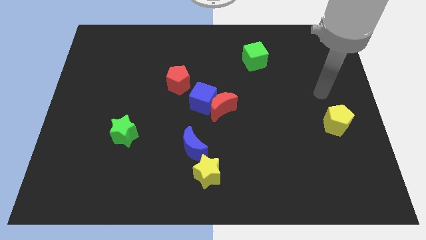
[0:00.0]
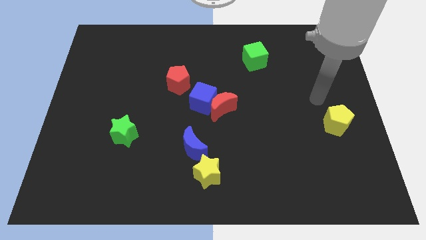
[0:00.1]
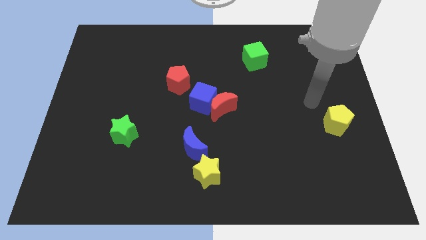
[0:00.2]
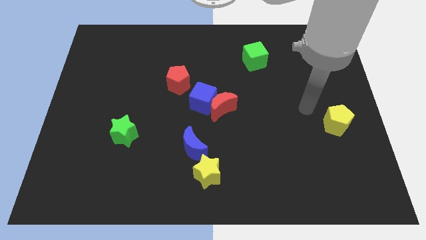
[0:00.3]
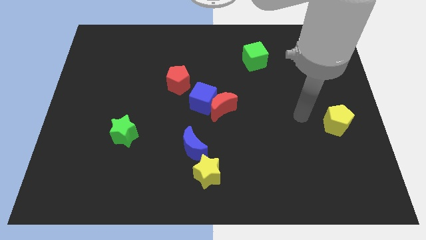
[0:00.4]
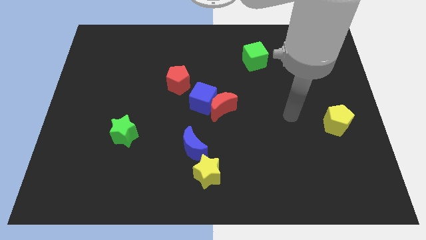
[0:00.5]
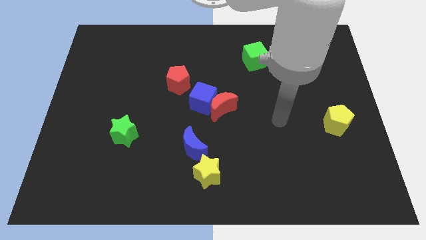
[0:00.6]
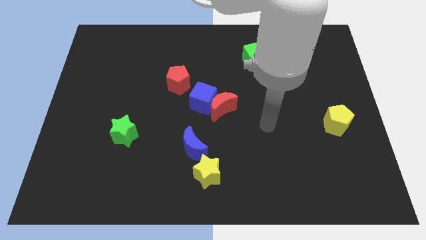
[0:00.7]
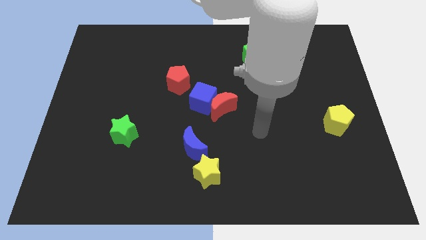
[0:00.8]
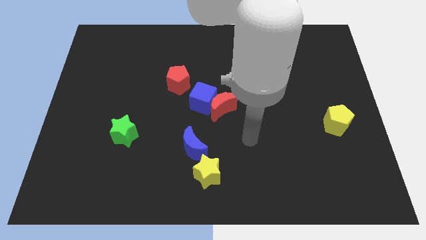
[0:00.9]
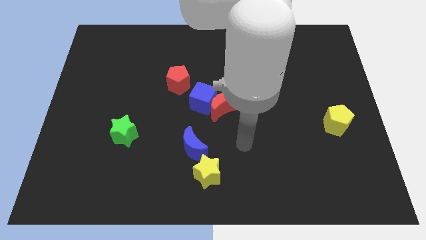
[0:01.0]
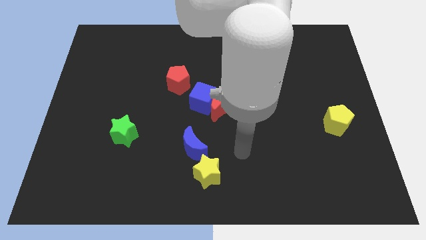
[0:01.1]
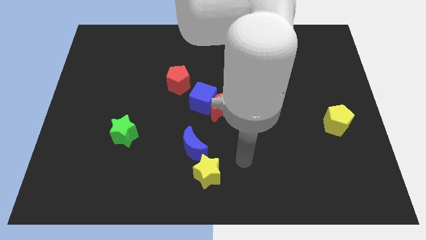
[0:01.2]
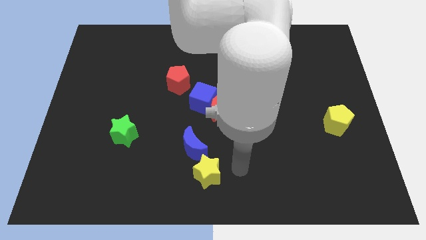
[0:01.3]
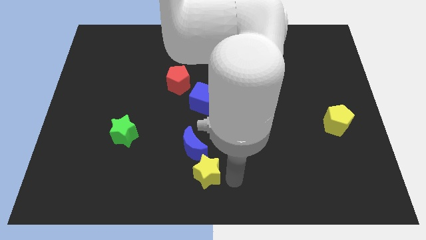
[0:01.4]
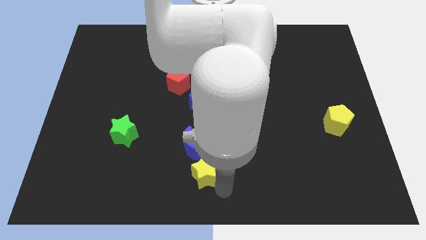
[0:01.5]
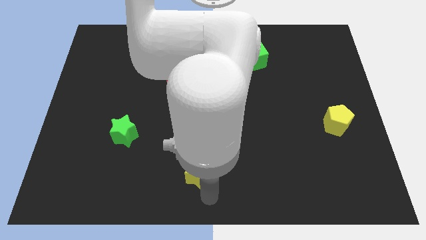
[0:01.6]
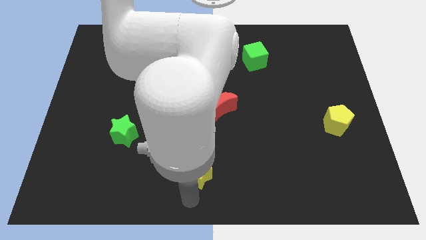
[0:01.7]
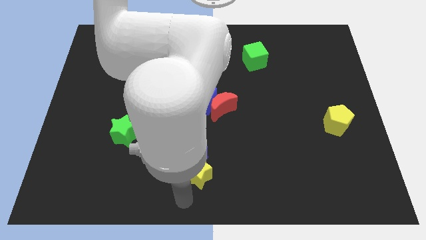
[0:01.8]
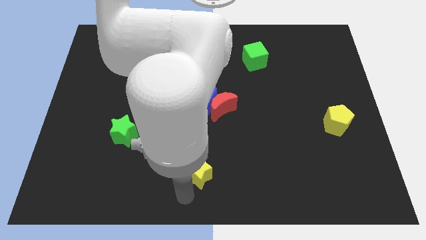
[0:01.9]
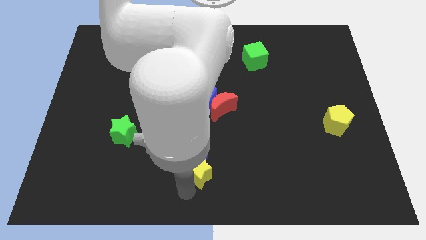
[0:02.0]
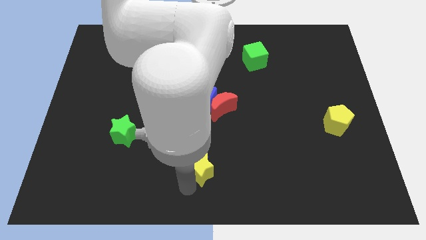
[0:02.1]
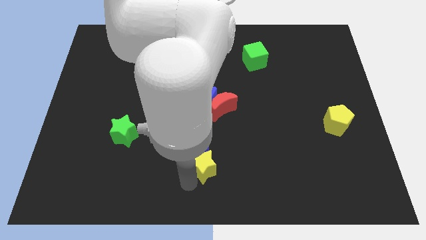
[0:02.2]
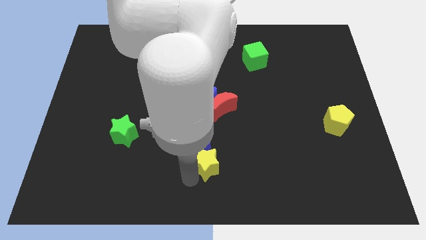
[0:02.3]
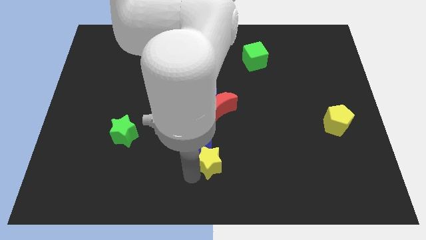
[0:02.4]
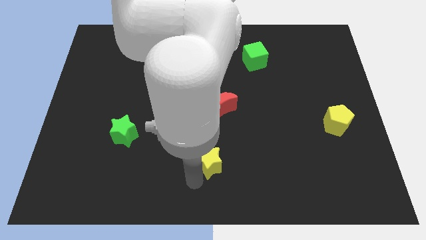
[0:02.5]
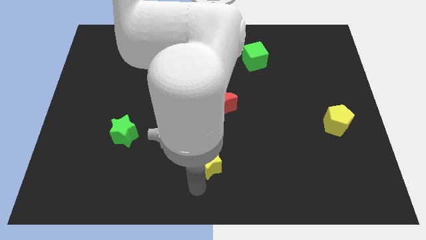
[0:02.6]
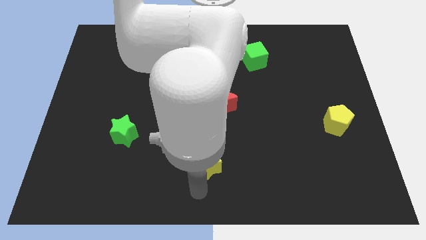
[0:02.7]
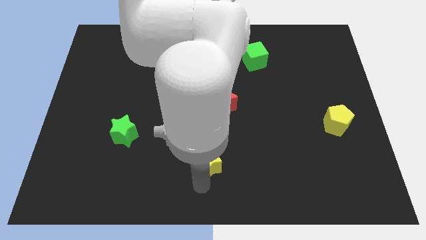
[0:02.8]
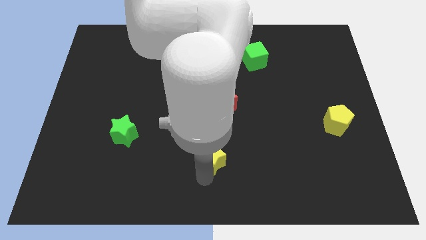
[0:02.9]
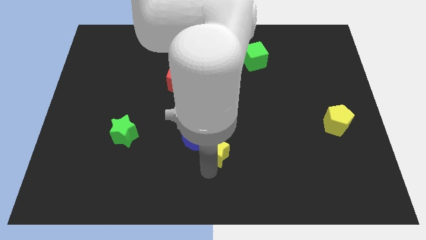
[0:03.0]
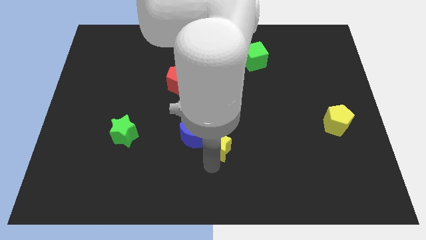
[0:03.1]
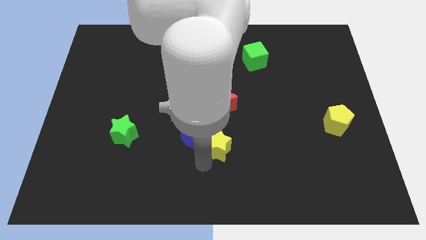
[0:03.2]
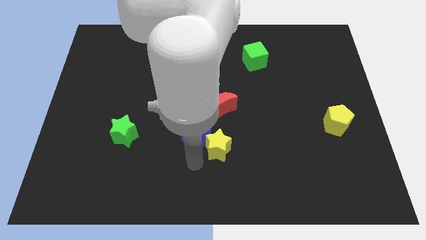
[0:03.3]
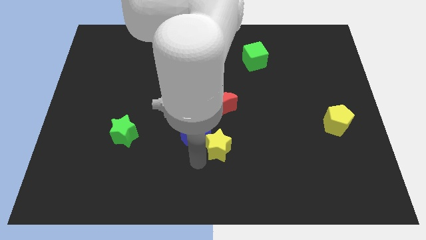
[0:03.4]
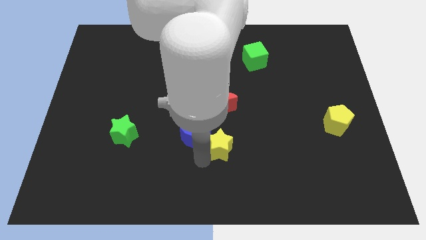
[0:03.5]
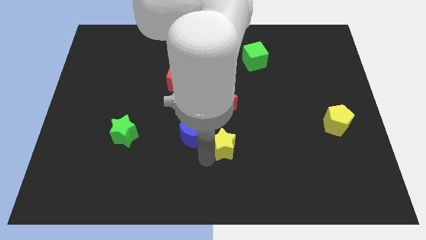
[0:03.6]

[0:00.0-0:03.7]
push the yellow star upwards and to the right a little

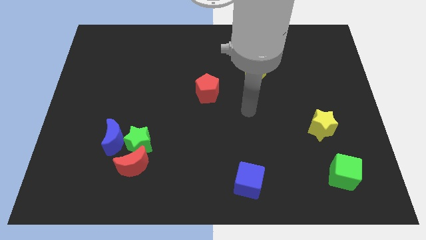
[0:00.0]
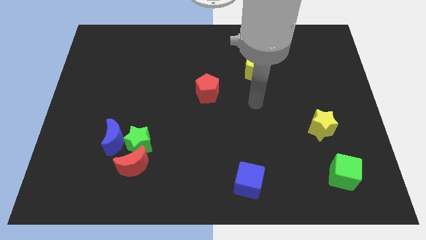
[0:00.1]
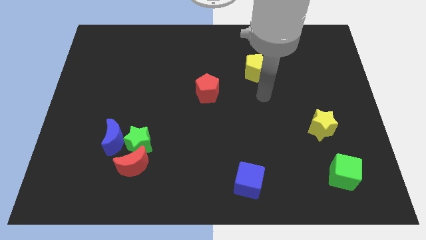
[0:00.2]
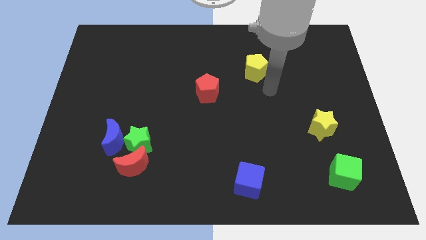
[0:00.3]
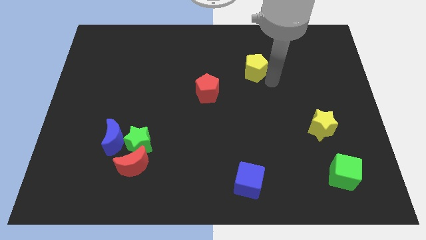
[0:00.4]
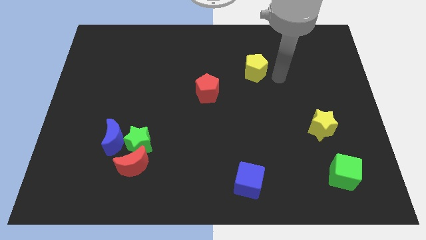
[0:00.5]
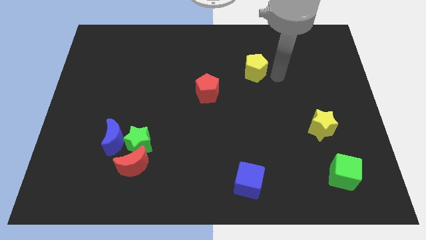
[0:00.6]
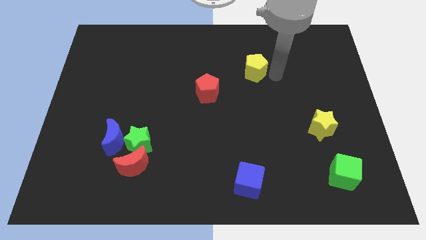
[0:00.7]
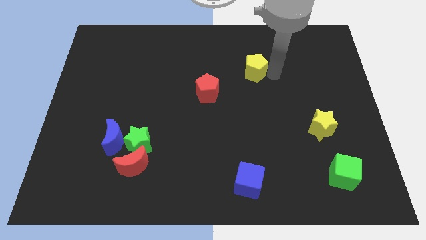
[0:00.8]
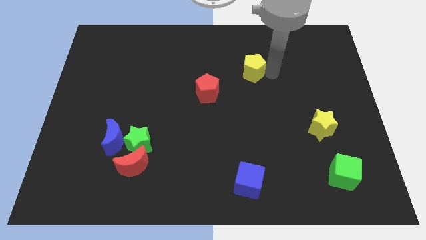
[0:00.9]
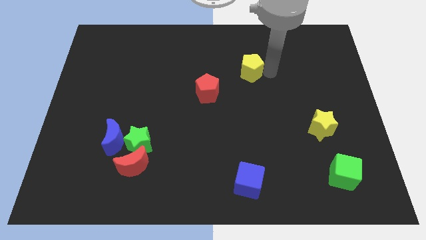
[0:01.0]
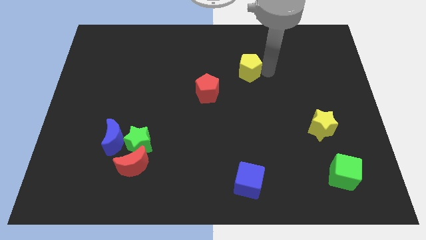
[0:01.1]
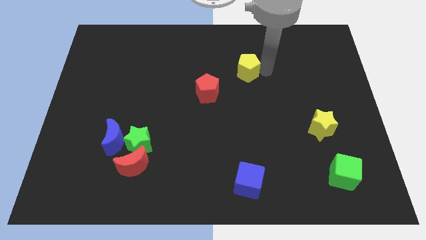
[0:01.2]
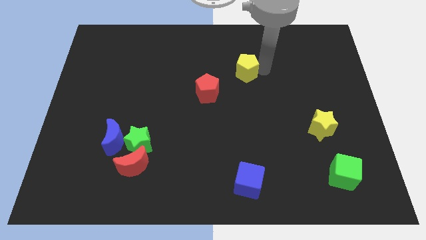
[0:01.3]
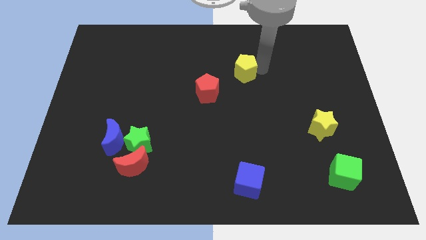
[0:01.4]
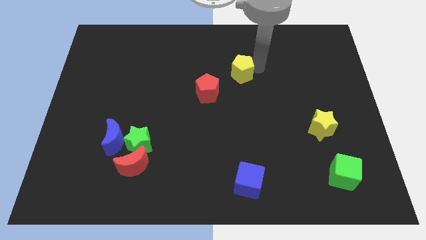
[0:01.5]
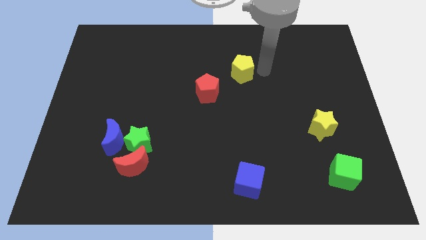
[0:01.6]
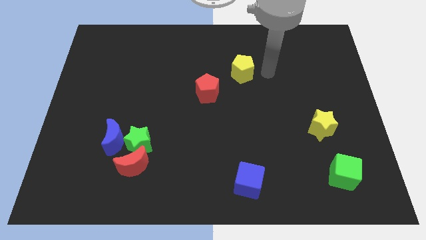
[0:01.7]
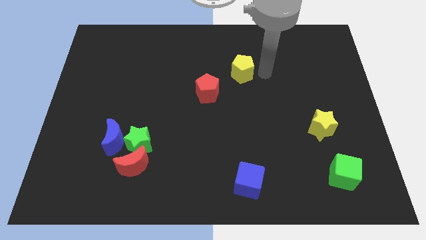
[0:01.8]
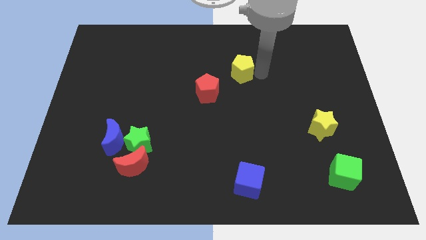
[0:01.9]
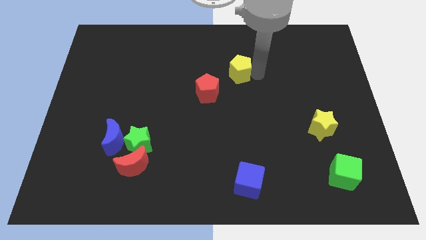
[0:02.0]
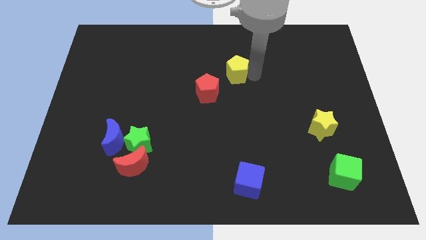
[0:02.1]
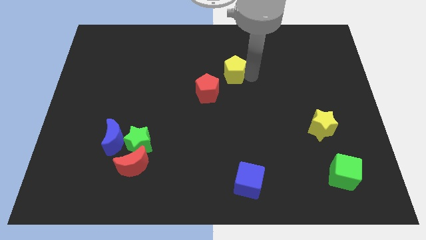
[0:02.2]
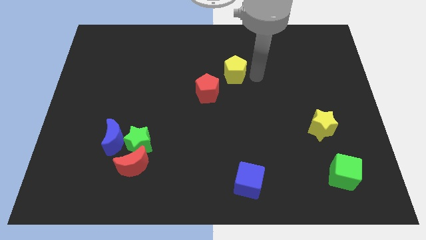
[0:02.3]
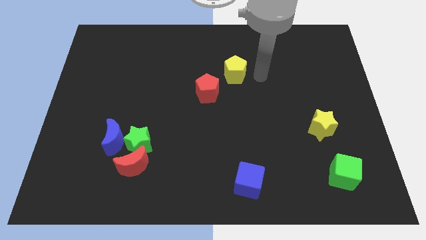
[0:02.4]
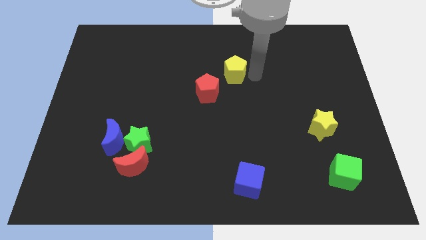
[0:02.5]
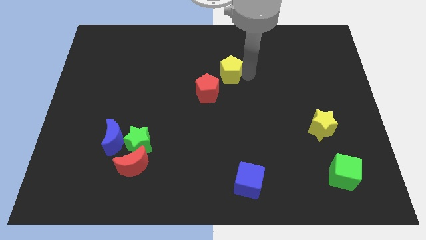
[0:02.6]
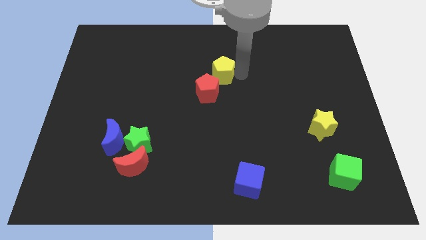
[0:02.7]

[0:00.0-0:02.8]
push the yellow pentagon a little left

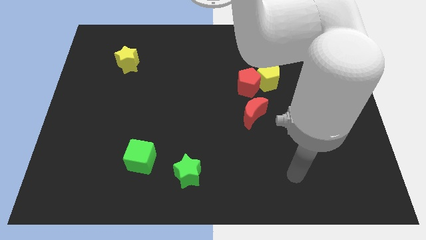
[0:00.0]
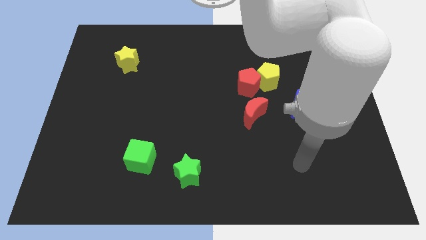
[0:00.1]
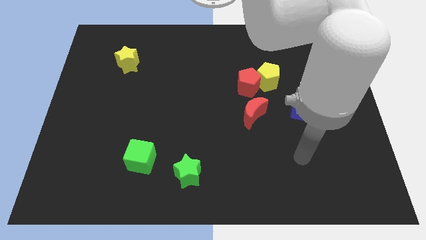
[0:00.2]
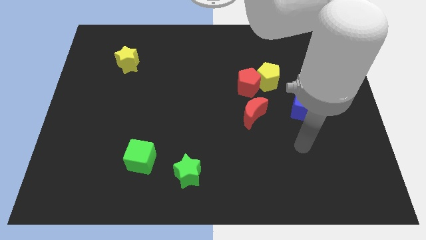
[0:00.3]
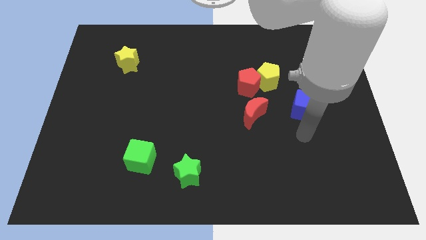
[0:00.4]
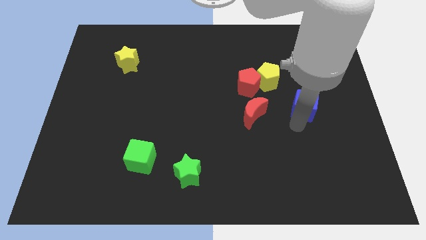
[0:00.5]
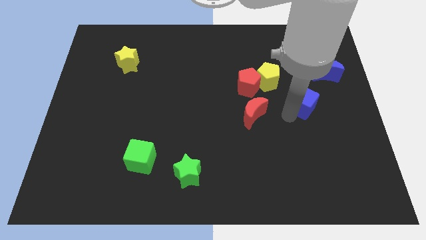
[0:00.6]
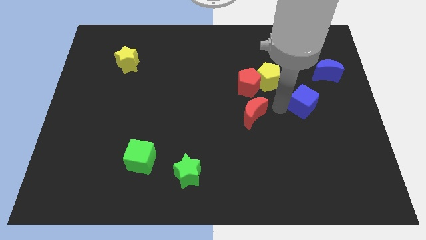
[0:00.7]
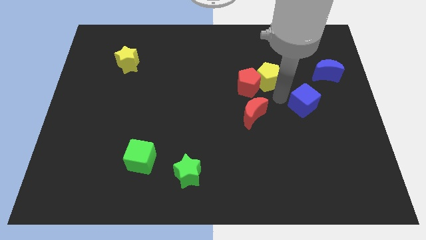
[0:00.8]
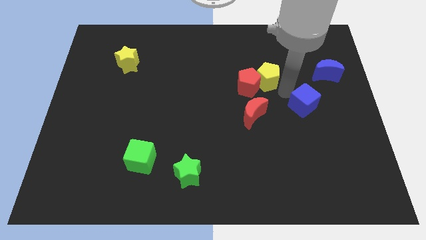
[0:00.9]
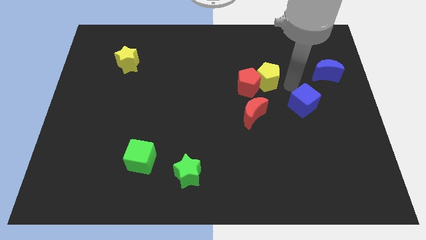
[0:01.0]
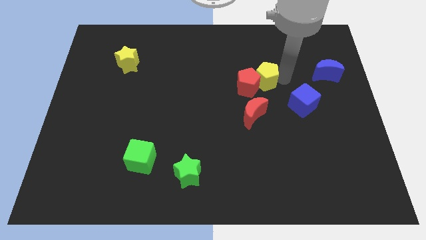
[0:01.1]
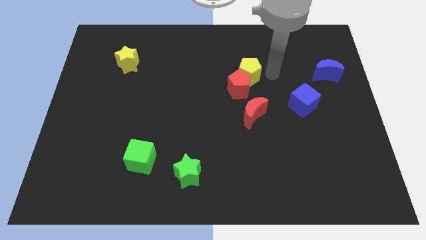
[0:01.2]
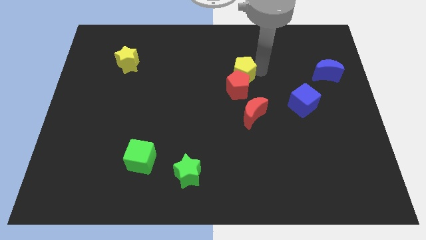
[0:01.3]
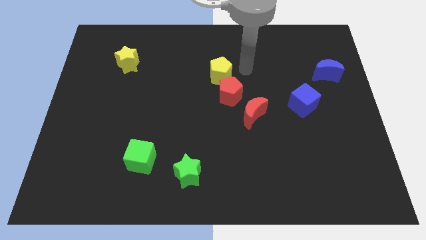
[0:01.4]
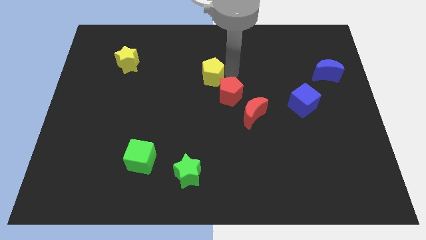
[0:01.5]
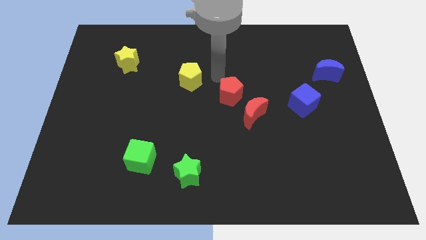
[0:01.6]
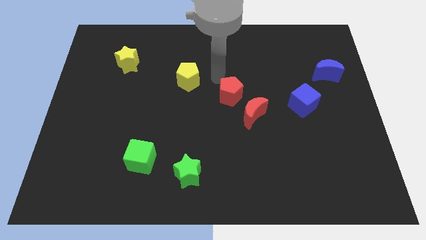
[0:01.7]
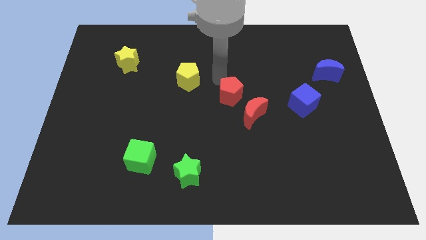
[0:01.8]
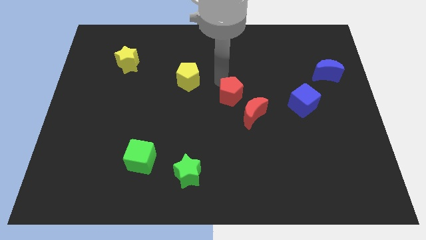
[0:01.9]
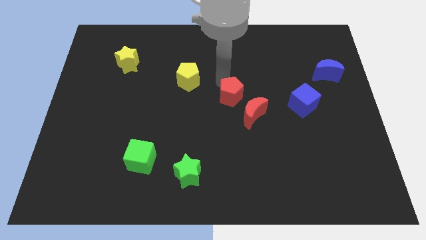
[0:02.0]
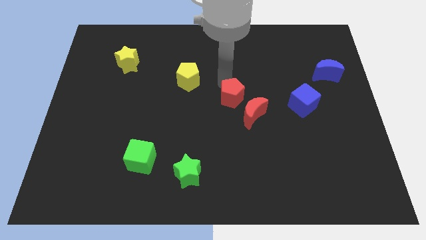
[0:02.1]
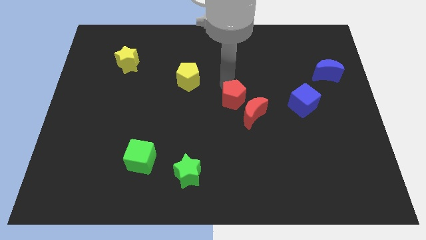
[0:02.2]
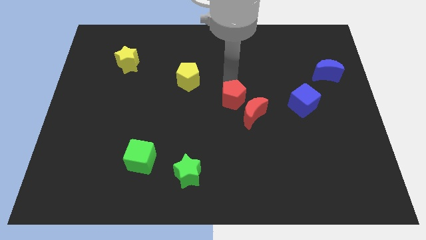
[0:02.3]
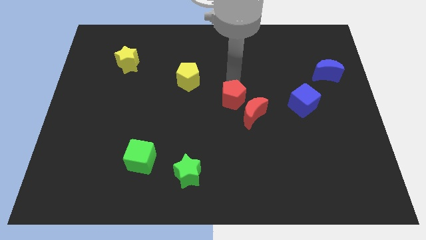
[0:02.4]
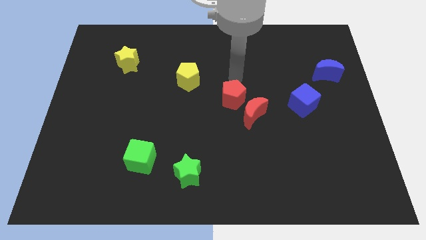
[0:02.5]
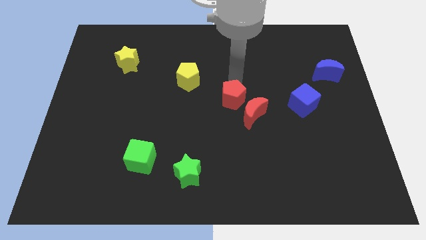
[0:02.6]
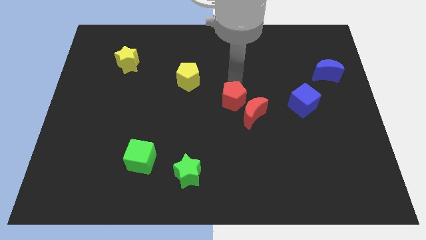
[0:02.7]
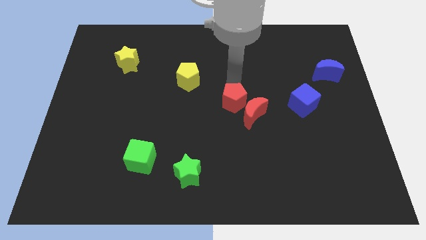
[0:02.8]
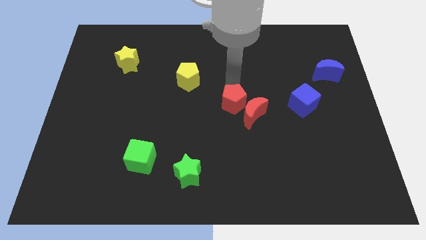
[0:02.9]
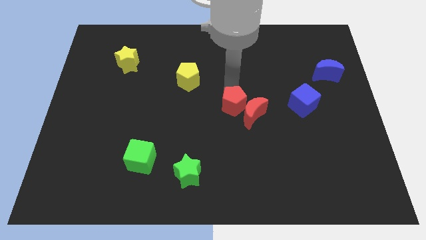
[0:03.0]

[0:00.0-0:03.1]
slide the red pentagon downwards and to the left diagonally a bit
